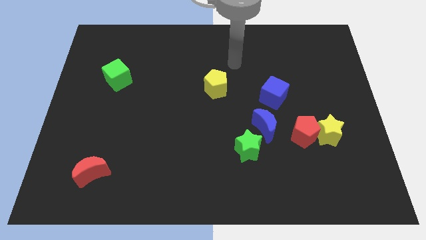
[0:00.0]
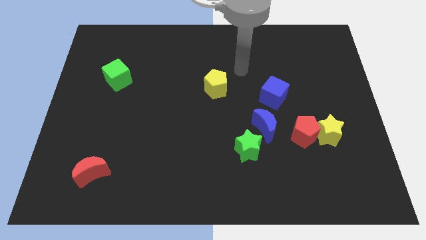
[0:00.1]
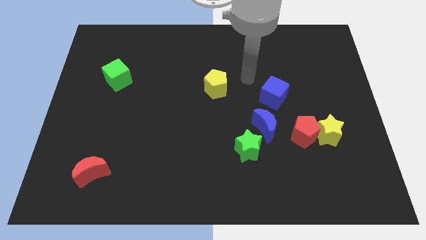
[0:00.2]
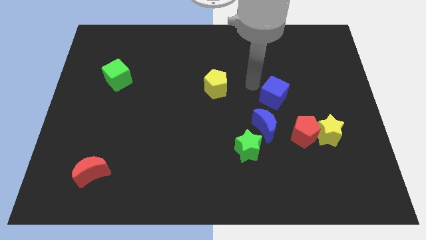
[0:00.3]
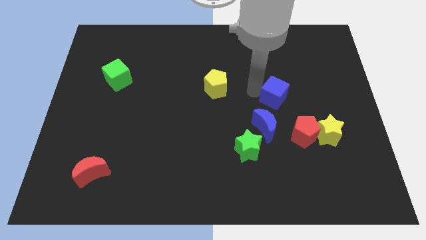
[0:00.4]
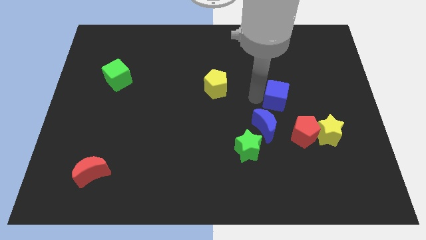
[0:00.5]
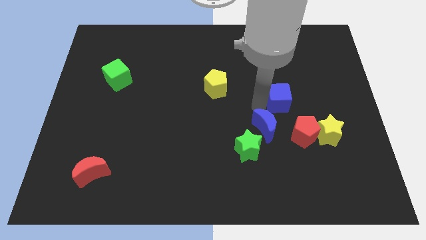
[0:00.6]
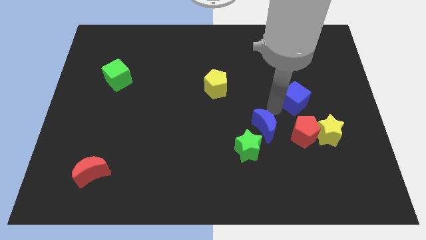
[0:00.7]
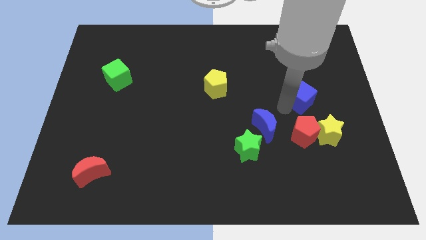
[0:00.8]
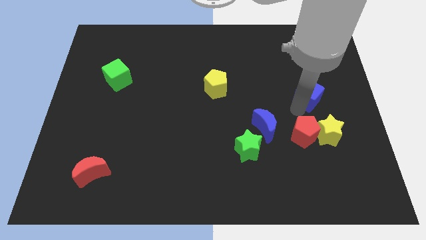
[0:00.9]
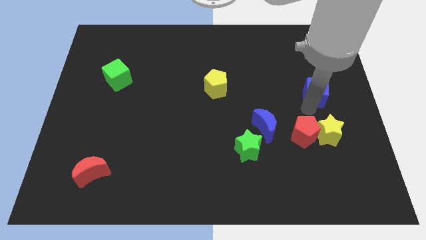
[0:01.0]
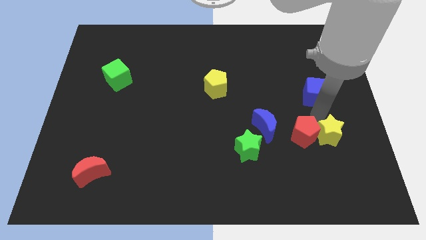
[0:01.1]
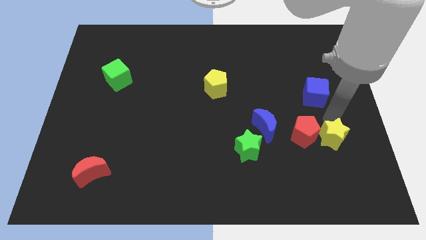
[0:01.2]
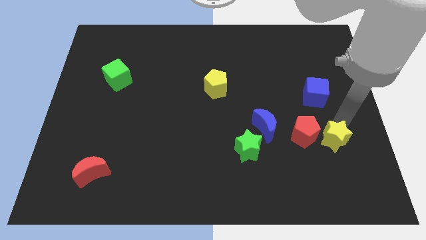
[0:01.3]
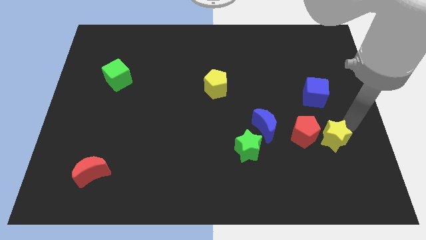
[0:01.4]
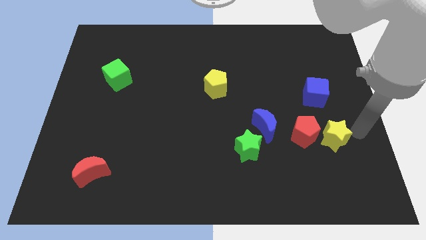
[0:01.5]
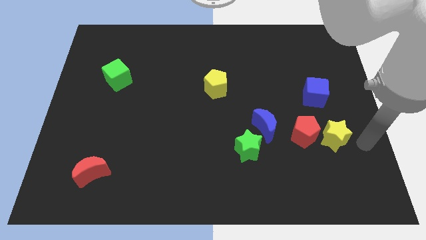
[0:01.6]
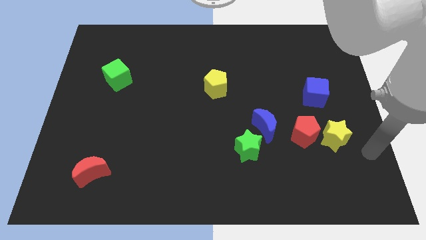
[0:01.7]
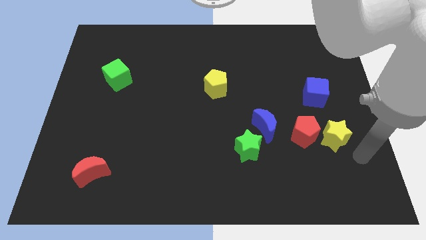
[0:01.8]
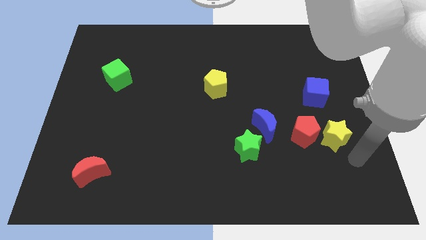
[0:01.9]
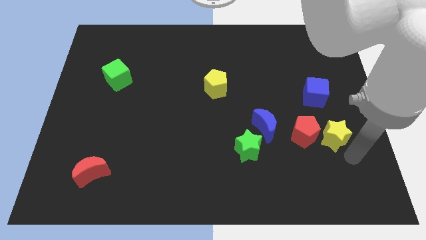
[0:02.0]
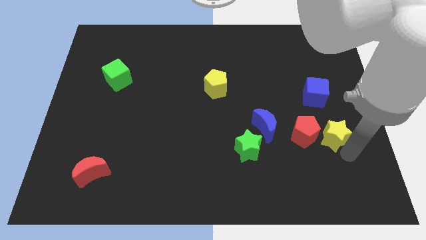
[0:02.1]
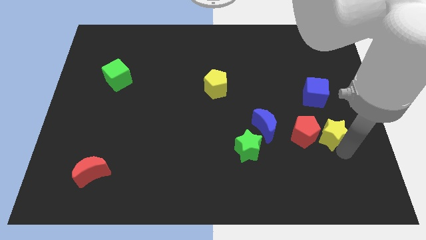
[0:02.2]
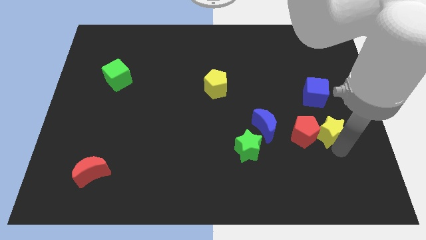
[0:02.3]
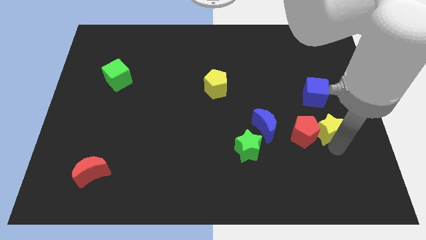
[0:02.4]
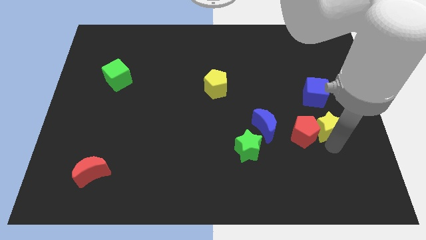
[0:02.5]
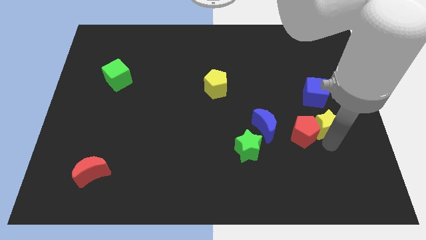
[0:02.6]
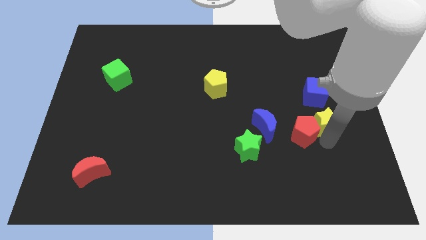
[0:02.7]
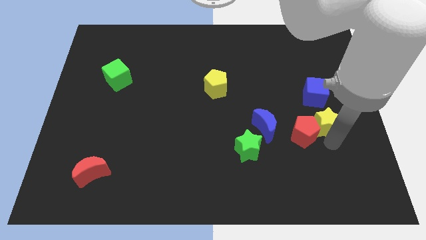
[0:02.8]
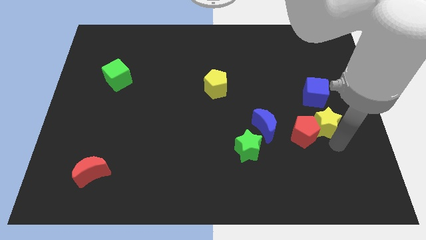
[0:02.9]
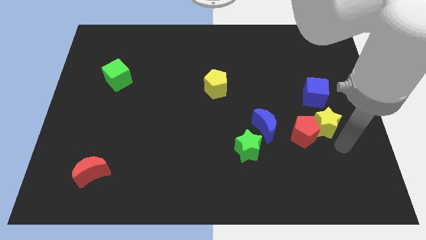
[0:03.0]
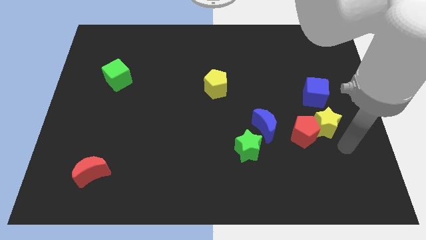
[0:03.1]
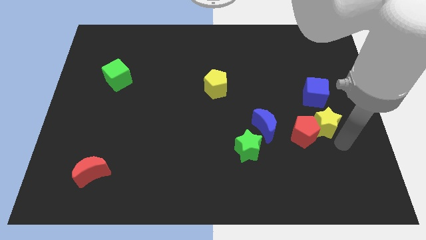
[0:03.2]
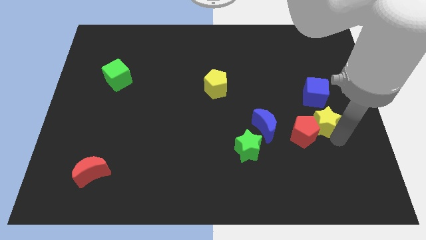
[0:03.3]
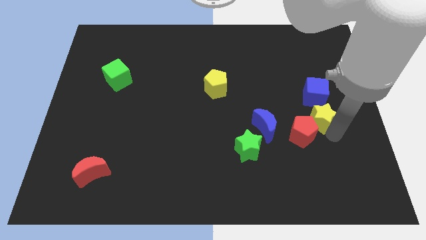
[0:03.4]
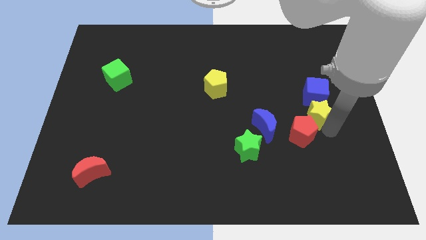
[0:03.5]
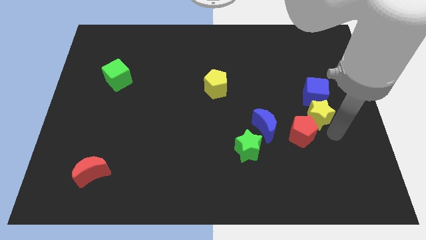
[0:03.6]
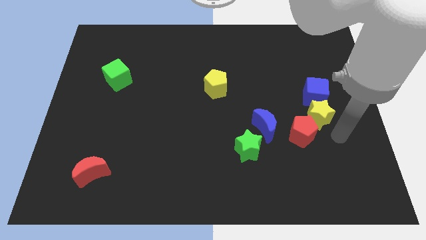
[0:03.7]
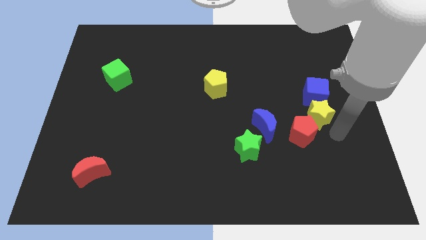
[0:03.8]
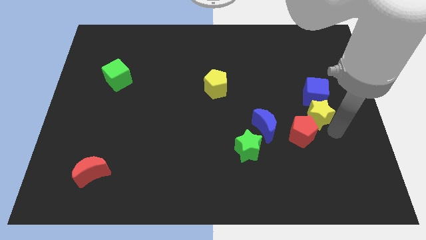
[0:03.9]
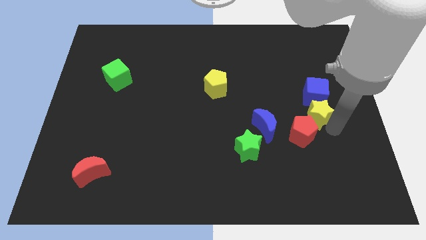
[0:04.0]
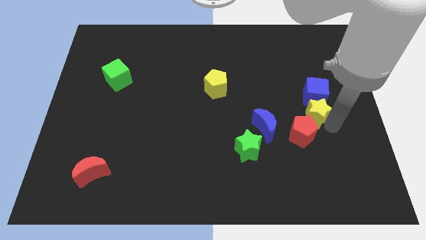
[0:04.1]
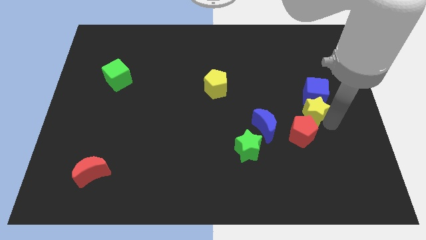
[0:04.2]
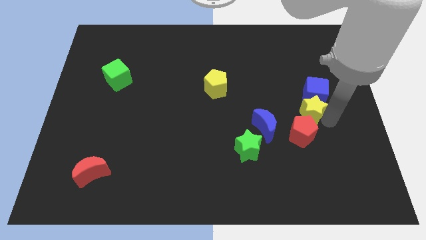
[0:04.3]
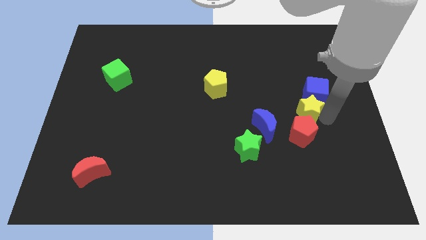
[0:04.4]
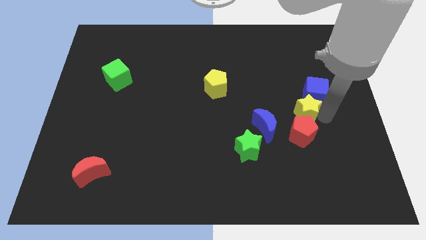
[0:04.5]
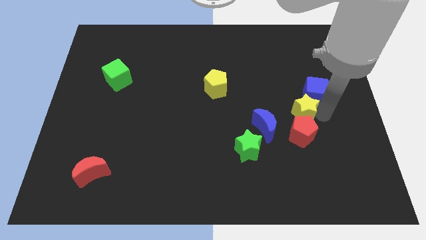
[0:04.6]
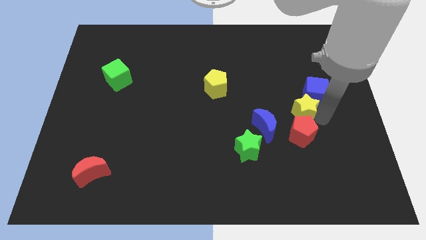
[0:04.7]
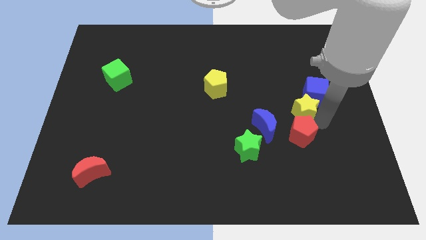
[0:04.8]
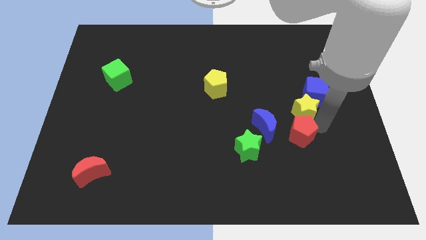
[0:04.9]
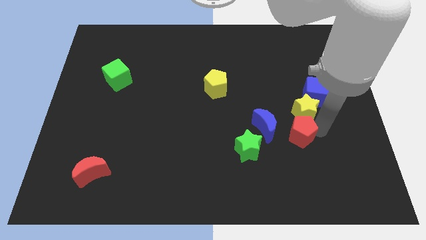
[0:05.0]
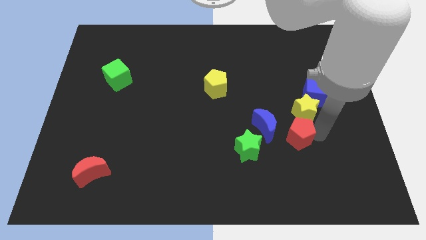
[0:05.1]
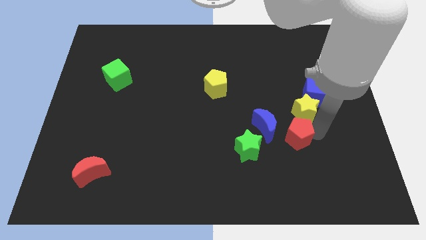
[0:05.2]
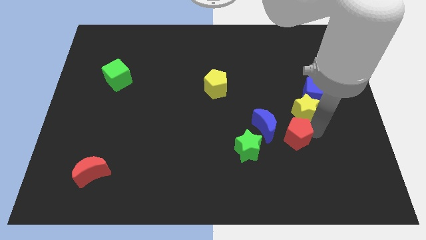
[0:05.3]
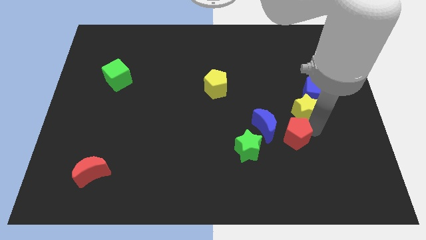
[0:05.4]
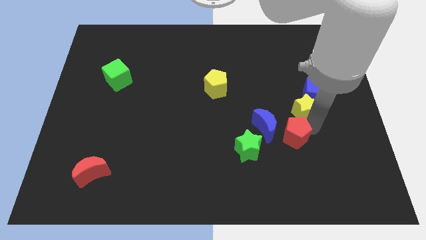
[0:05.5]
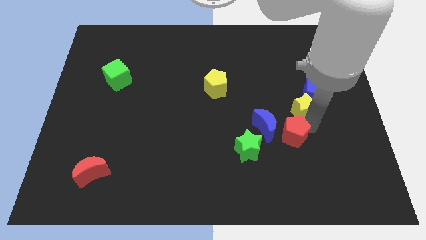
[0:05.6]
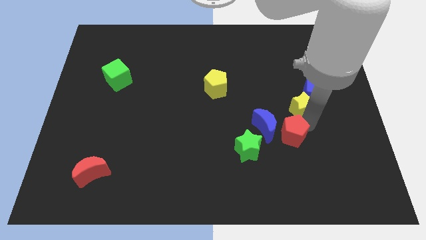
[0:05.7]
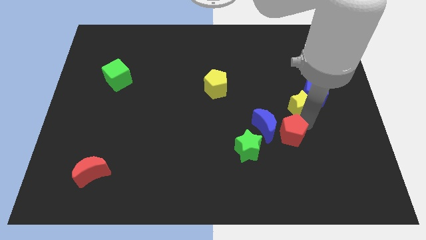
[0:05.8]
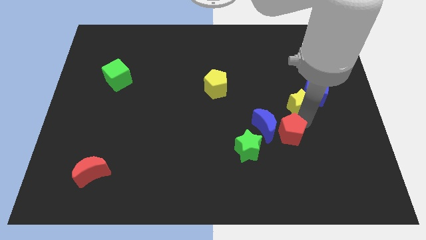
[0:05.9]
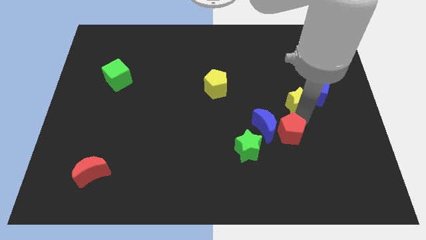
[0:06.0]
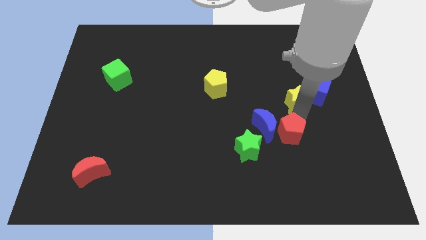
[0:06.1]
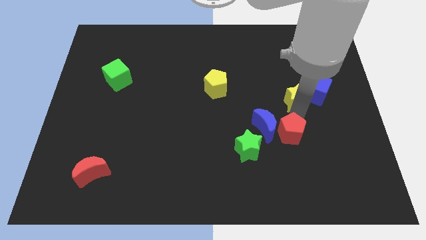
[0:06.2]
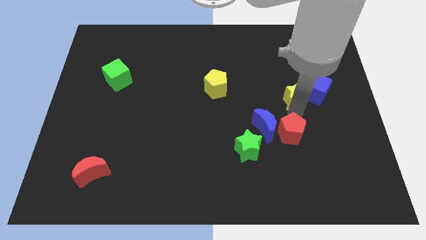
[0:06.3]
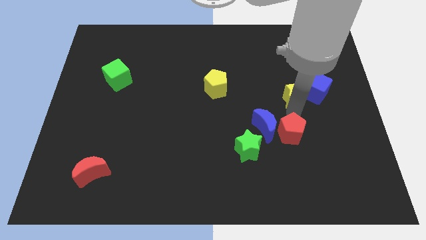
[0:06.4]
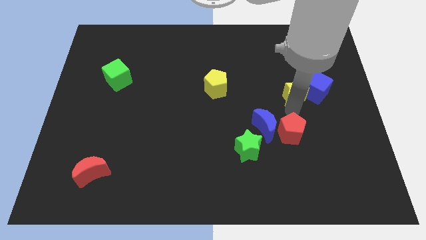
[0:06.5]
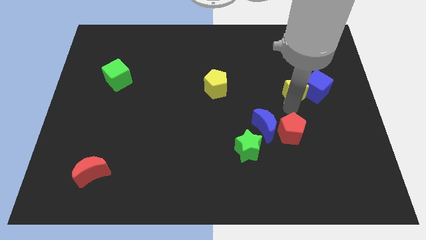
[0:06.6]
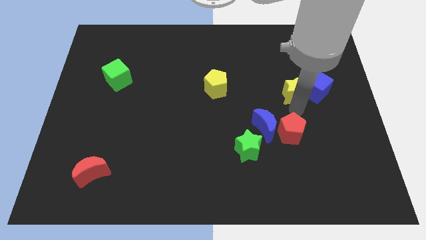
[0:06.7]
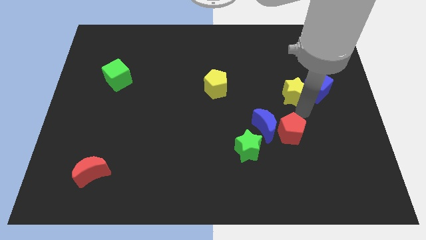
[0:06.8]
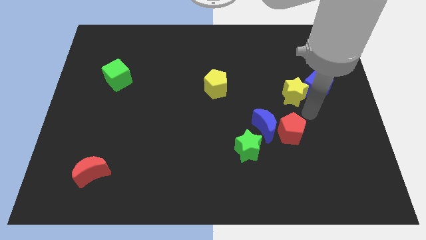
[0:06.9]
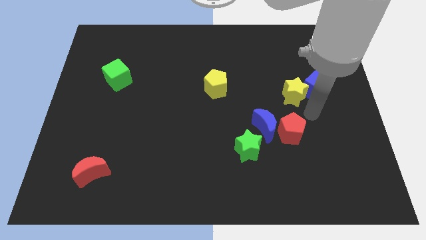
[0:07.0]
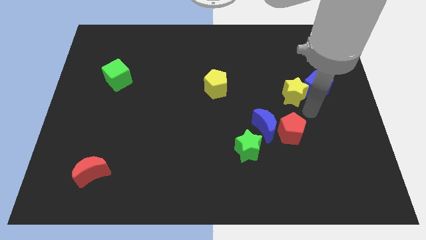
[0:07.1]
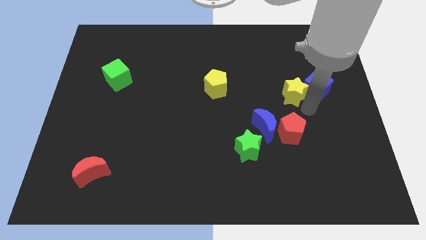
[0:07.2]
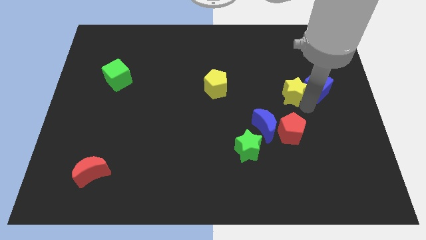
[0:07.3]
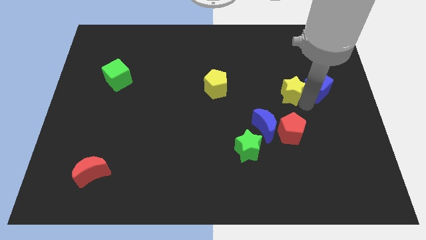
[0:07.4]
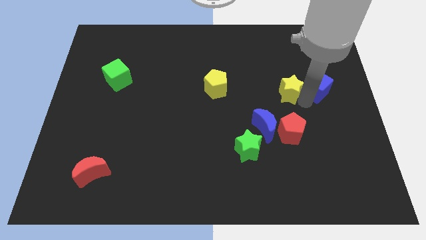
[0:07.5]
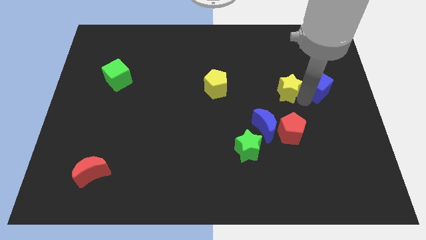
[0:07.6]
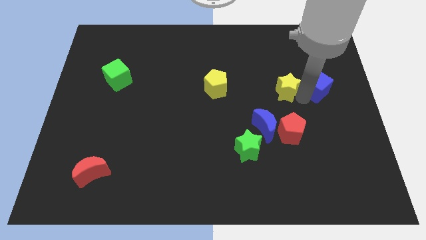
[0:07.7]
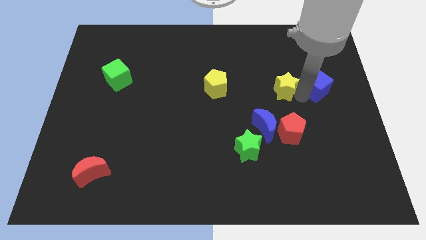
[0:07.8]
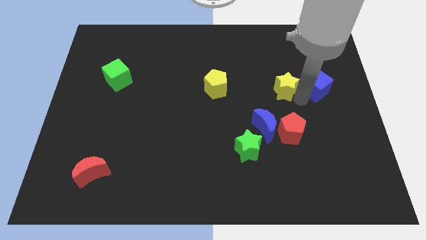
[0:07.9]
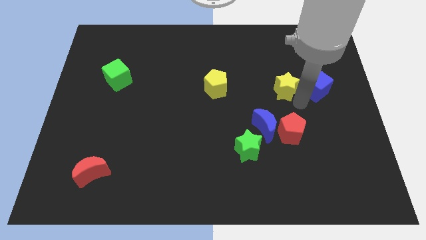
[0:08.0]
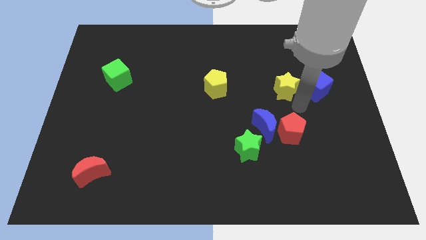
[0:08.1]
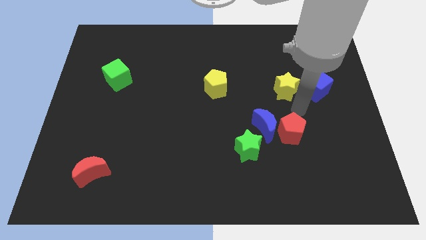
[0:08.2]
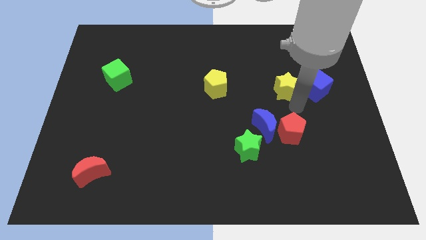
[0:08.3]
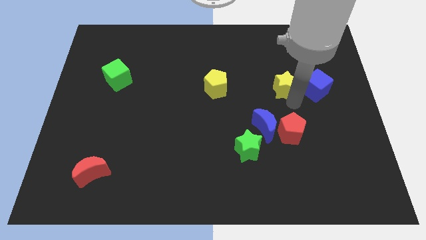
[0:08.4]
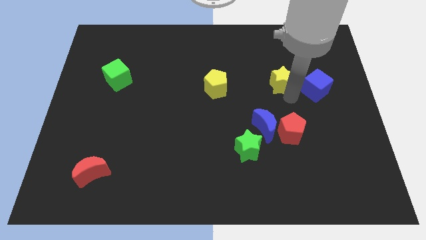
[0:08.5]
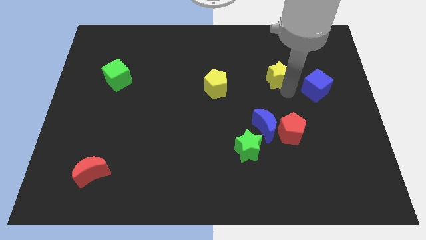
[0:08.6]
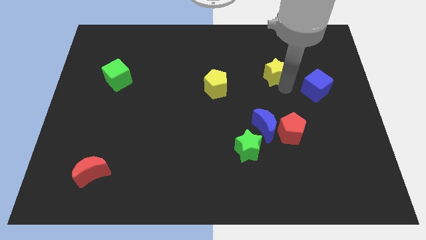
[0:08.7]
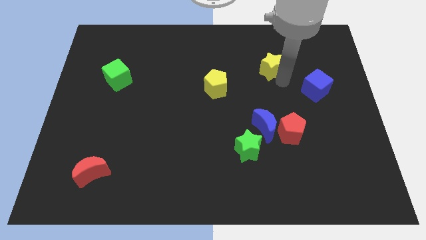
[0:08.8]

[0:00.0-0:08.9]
move the yellow star upwards and to the left
